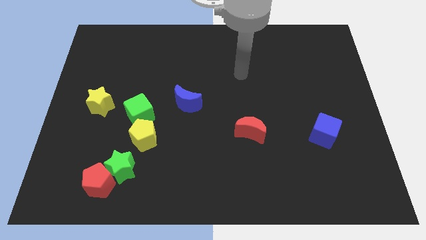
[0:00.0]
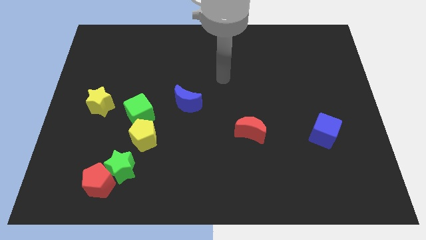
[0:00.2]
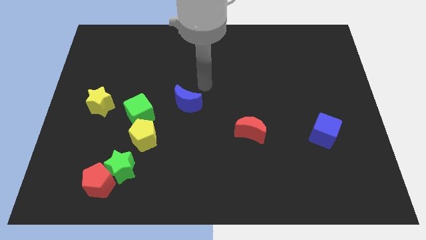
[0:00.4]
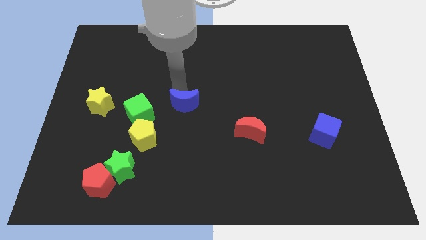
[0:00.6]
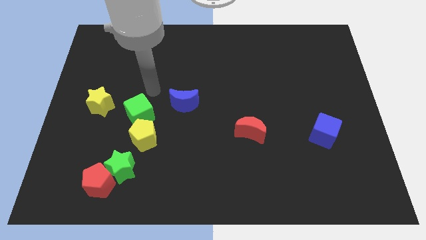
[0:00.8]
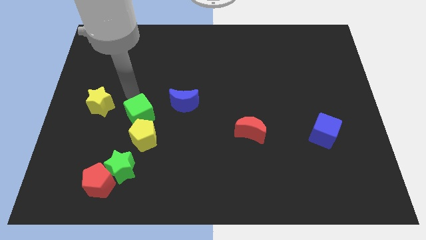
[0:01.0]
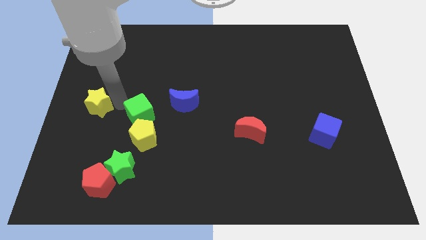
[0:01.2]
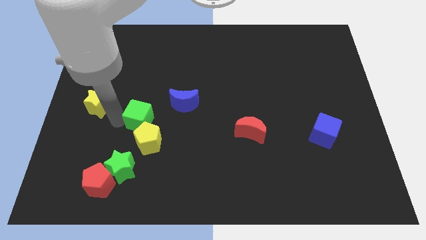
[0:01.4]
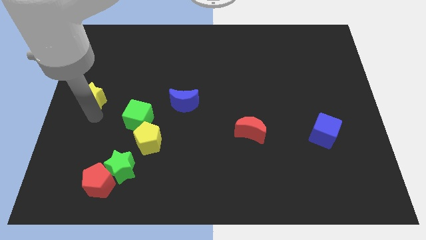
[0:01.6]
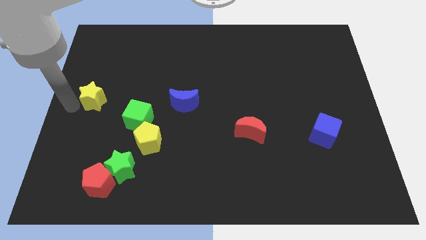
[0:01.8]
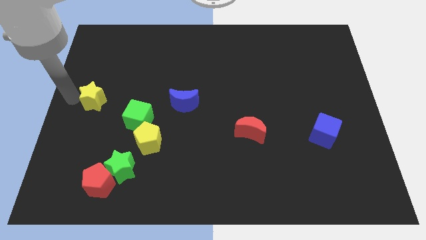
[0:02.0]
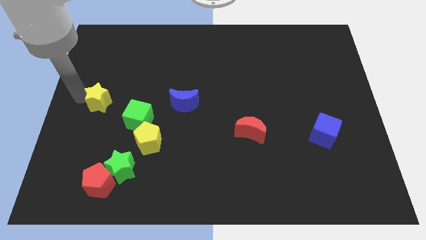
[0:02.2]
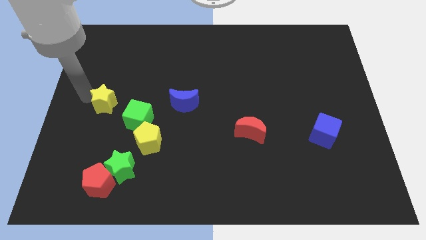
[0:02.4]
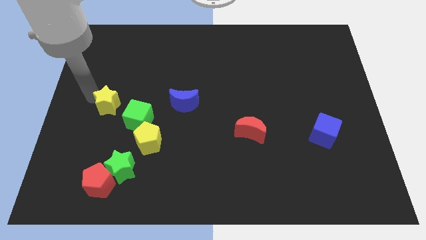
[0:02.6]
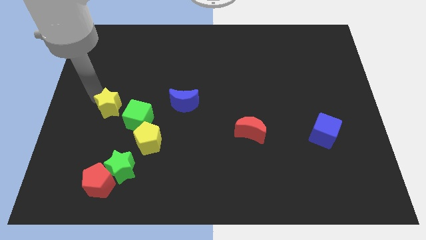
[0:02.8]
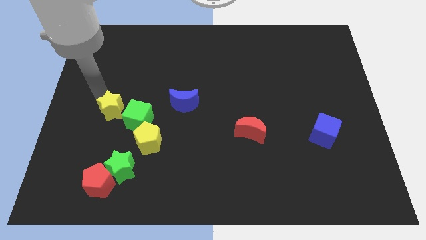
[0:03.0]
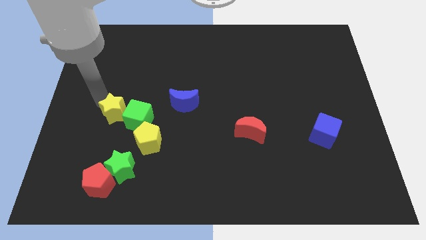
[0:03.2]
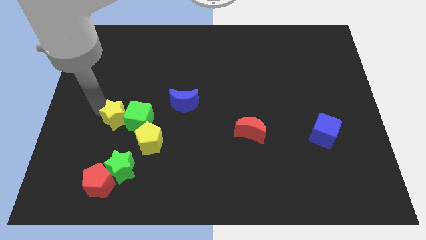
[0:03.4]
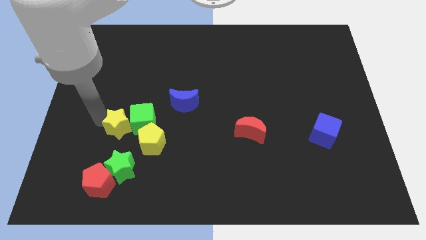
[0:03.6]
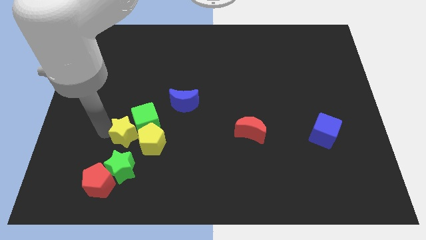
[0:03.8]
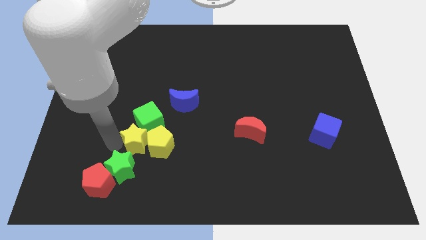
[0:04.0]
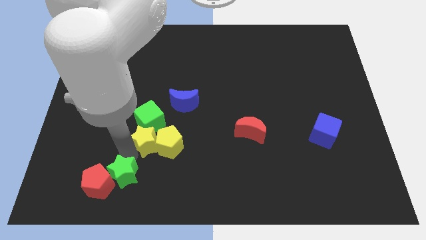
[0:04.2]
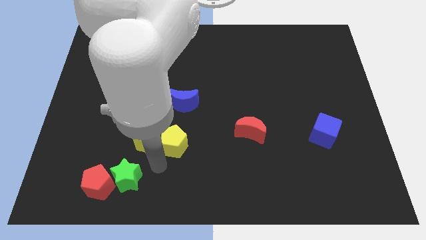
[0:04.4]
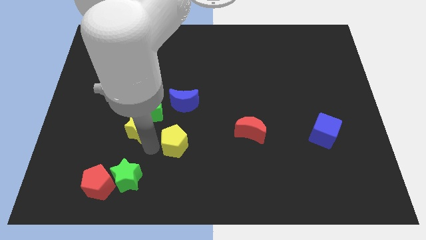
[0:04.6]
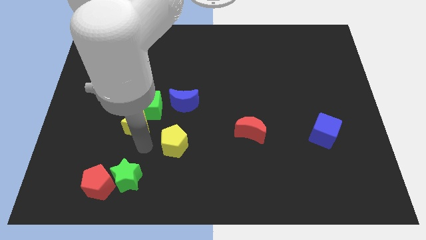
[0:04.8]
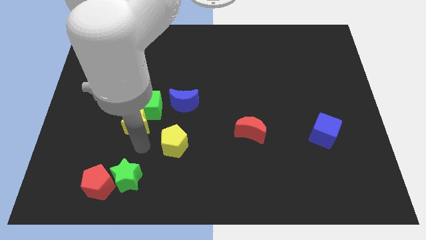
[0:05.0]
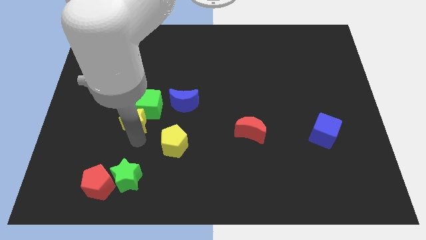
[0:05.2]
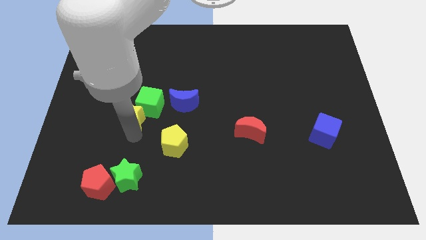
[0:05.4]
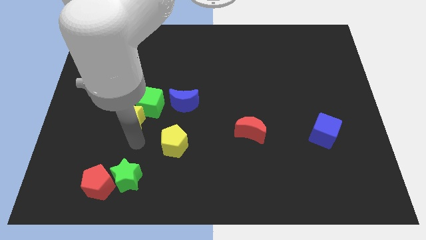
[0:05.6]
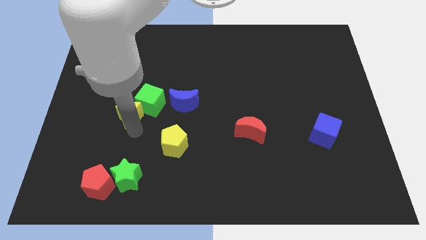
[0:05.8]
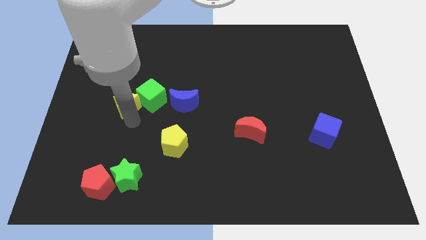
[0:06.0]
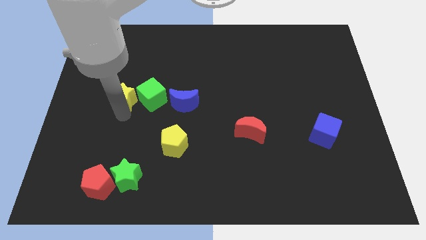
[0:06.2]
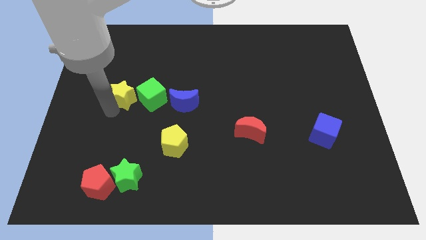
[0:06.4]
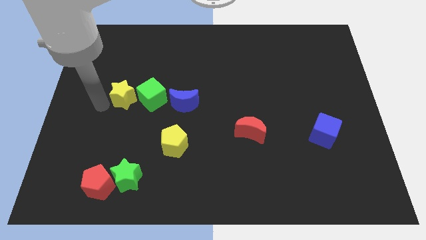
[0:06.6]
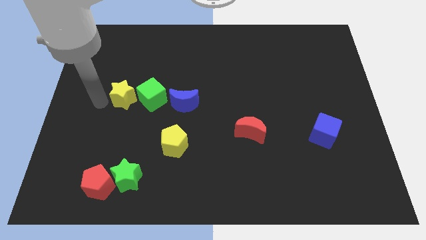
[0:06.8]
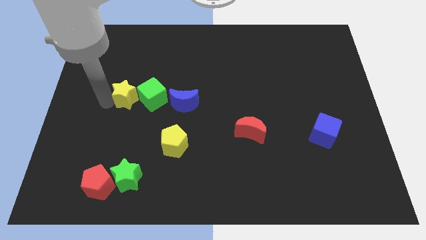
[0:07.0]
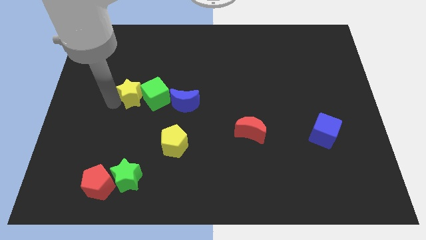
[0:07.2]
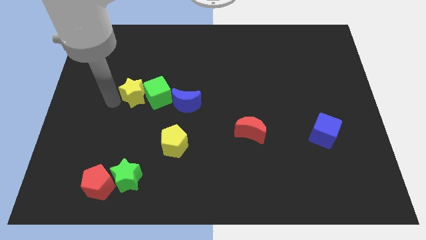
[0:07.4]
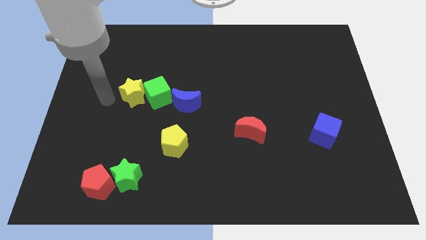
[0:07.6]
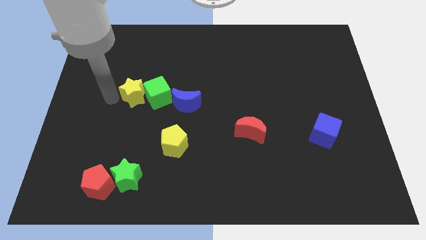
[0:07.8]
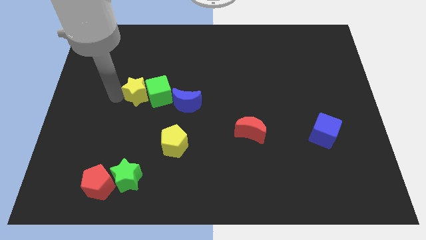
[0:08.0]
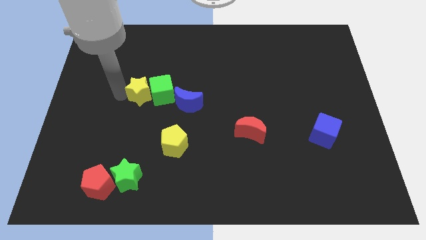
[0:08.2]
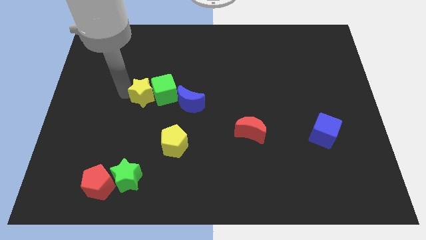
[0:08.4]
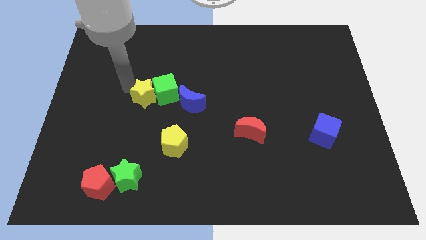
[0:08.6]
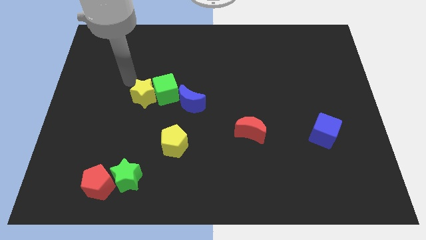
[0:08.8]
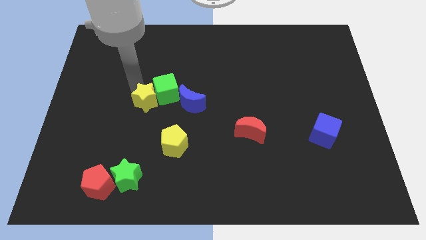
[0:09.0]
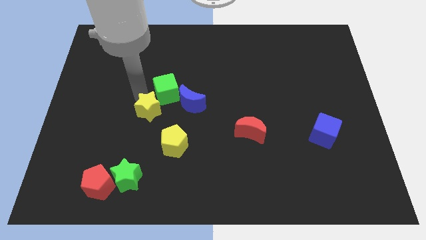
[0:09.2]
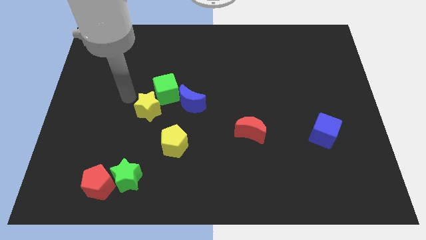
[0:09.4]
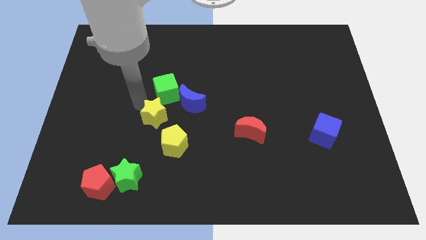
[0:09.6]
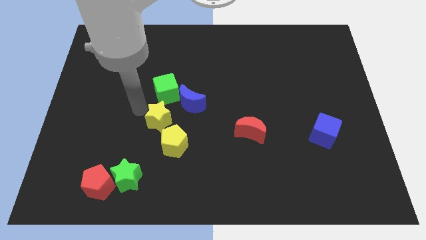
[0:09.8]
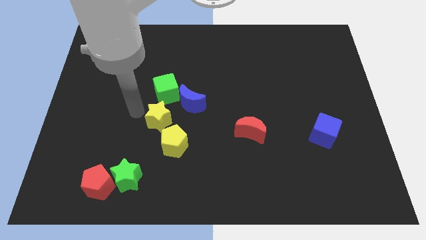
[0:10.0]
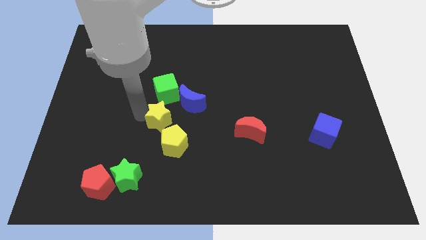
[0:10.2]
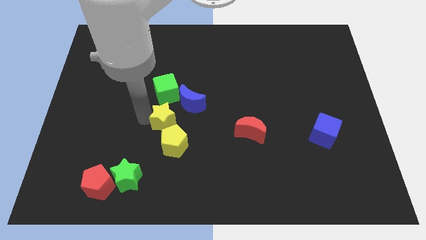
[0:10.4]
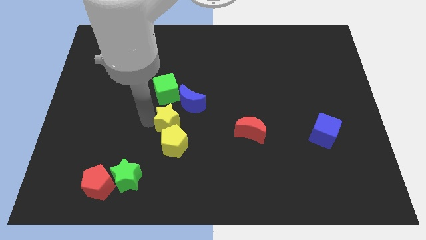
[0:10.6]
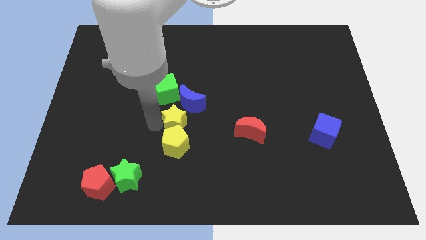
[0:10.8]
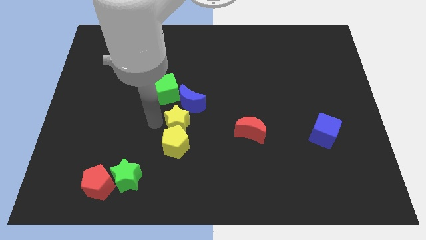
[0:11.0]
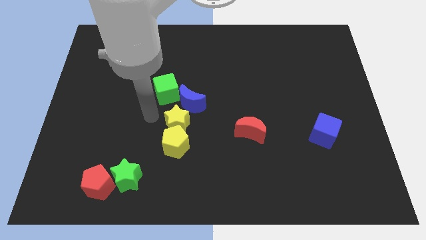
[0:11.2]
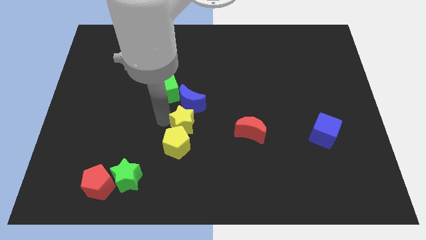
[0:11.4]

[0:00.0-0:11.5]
put the yellow star to the left of the red moon
